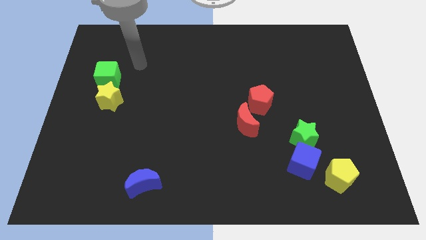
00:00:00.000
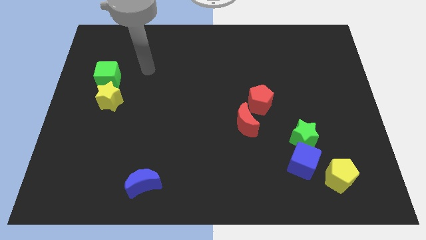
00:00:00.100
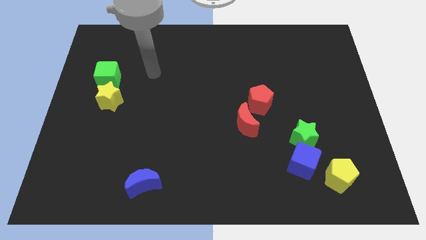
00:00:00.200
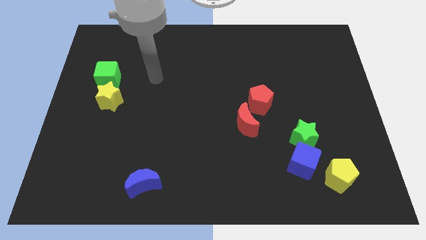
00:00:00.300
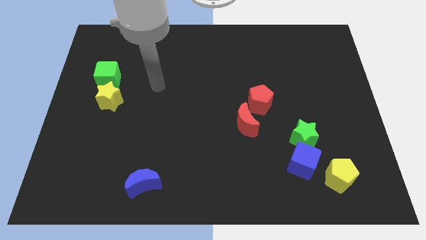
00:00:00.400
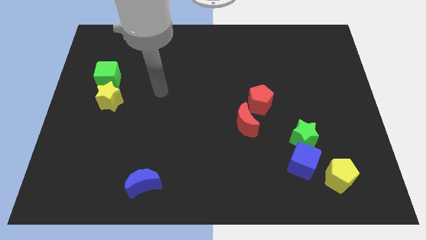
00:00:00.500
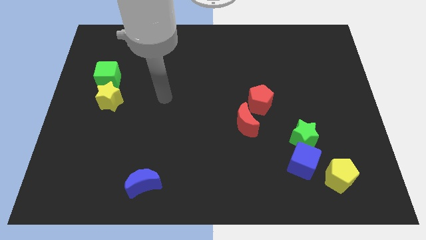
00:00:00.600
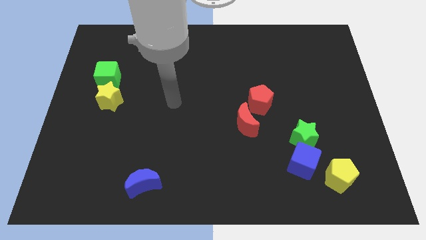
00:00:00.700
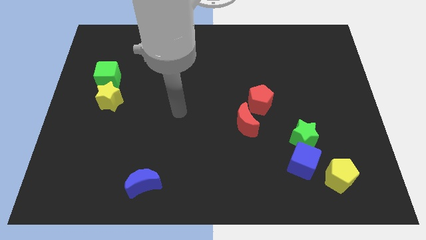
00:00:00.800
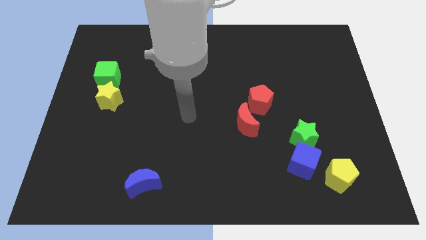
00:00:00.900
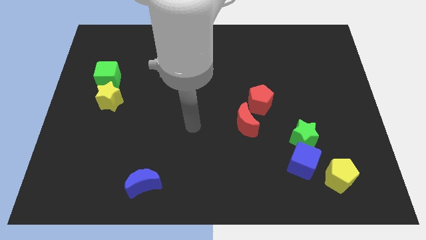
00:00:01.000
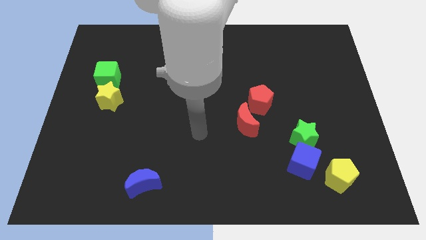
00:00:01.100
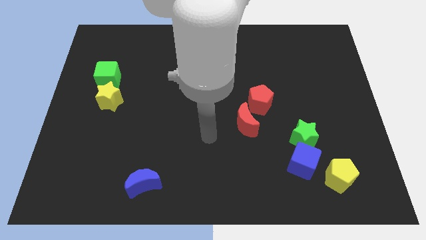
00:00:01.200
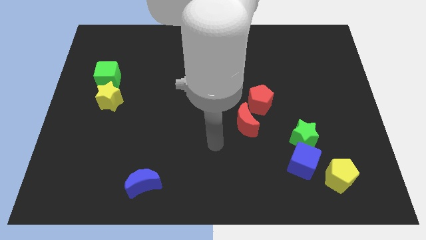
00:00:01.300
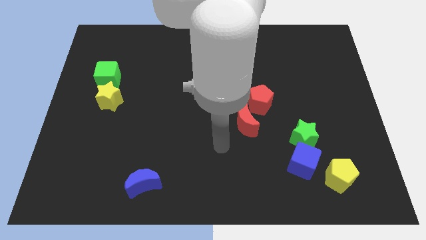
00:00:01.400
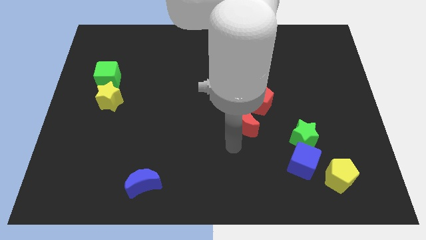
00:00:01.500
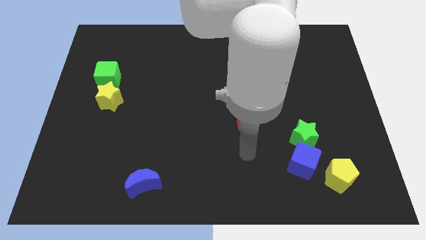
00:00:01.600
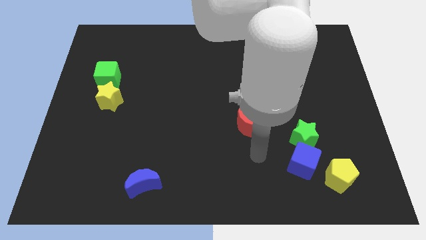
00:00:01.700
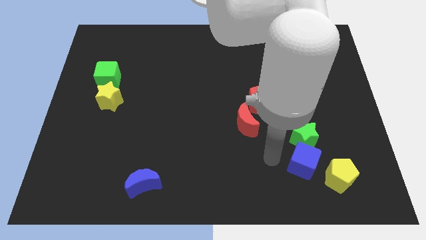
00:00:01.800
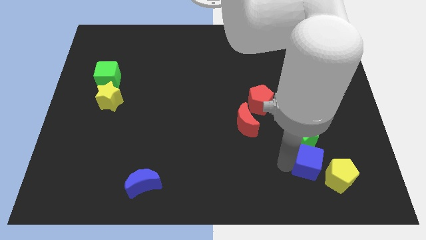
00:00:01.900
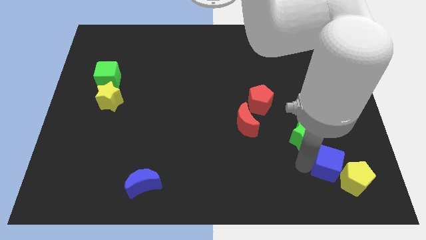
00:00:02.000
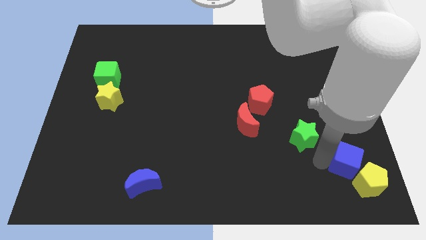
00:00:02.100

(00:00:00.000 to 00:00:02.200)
pull the green star apart from the blue cube

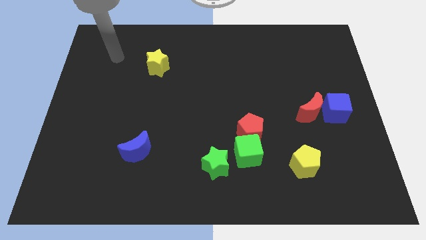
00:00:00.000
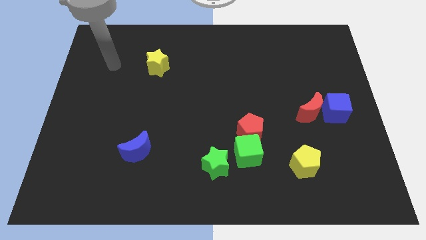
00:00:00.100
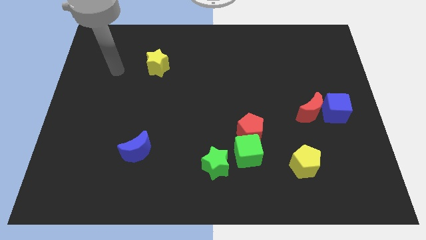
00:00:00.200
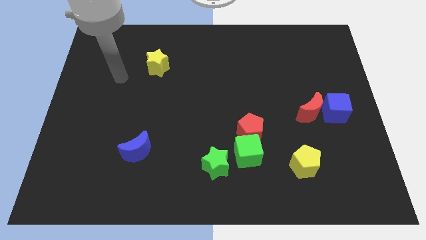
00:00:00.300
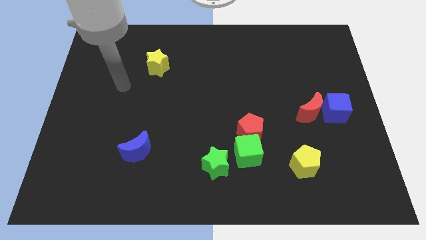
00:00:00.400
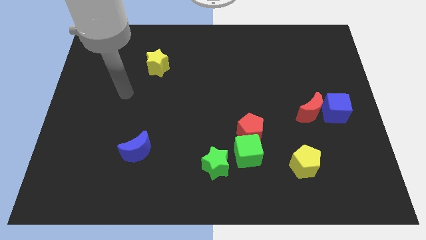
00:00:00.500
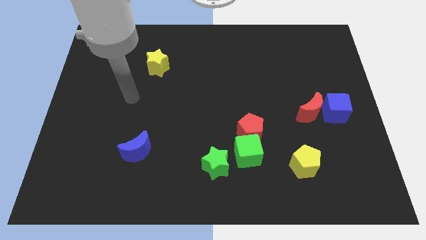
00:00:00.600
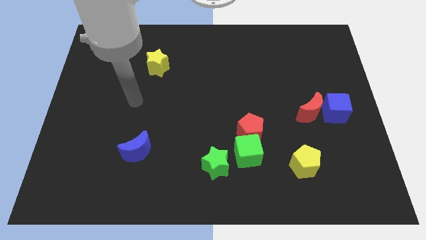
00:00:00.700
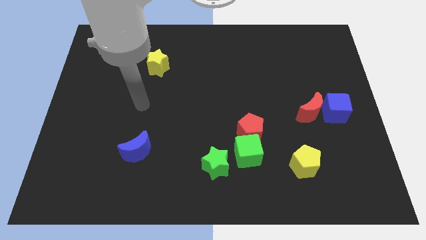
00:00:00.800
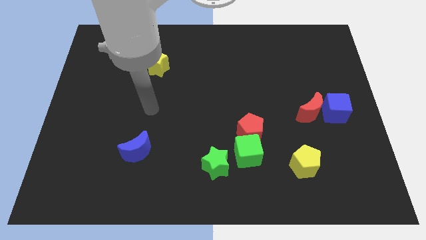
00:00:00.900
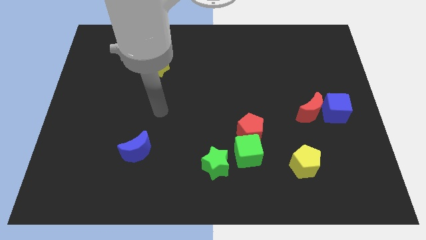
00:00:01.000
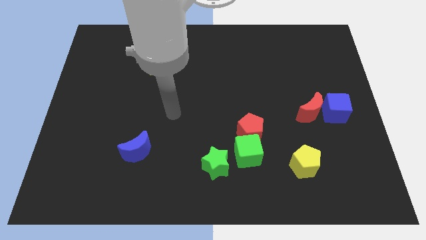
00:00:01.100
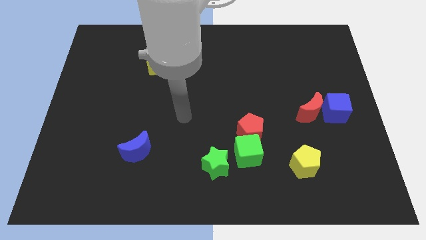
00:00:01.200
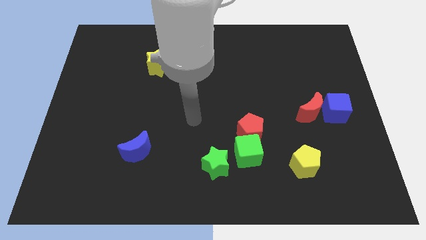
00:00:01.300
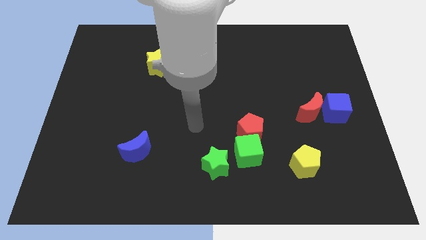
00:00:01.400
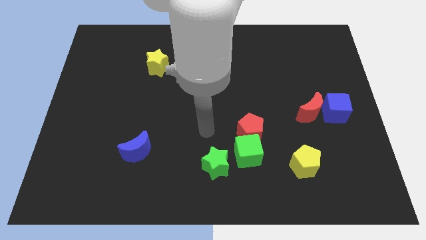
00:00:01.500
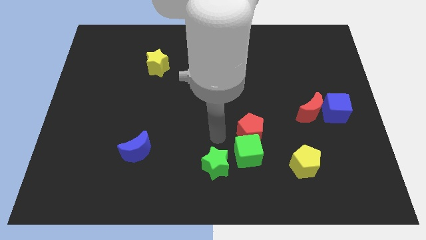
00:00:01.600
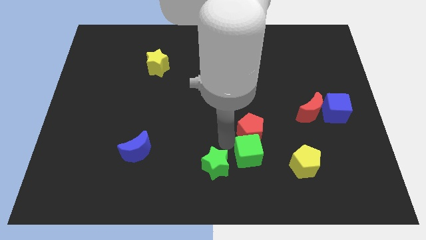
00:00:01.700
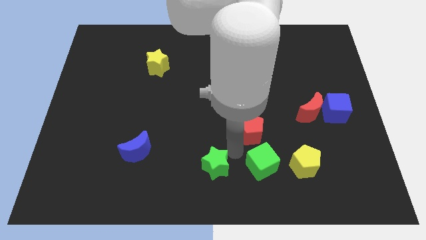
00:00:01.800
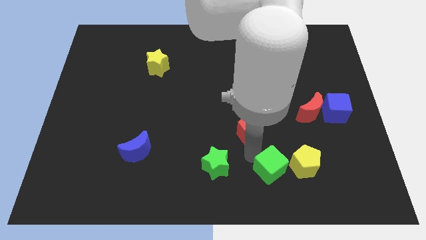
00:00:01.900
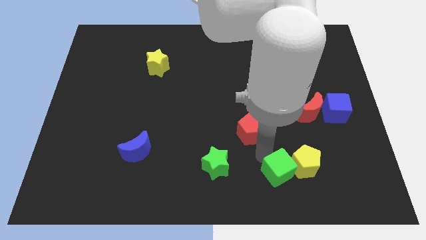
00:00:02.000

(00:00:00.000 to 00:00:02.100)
separate the red pentagon from the green cube

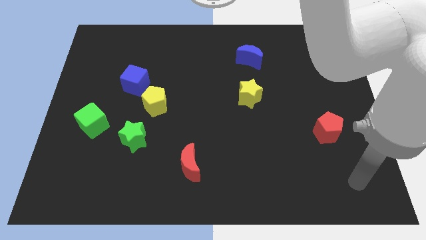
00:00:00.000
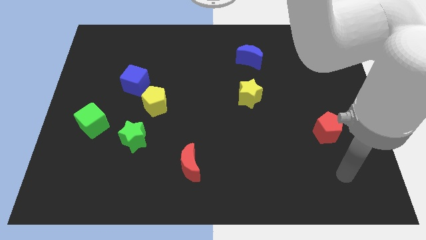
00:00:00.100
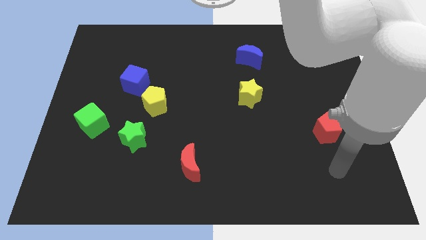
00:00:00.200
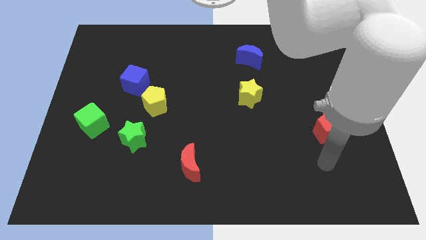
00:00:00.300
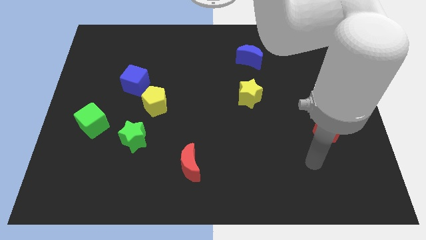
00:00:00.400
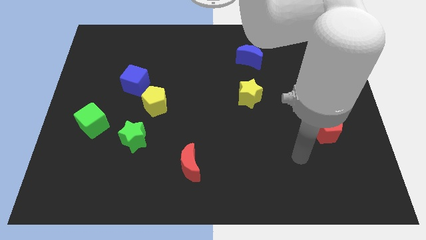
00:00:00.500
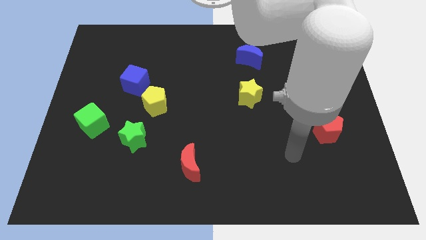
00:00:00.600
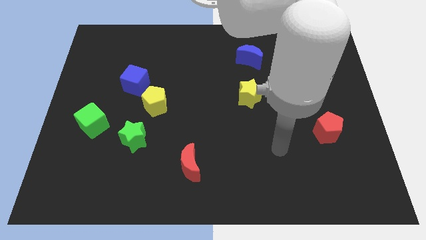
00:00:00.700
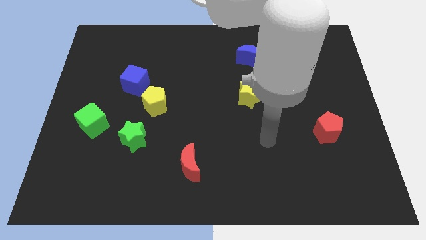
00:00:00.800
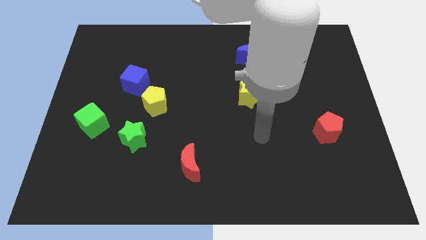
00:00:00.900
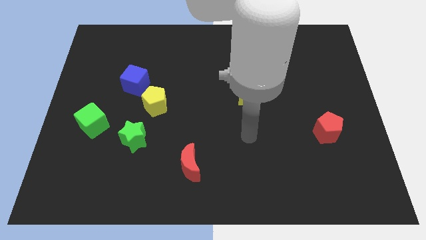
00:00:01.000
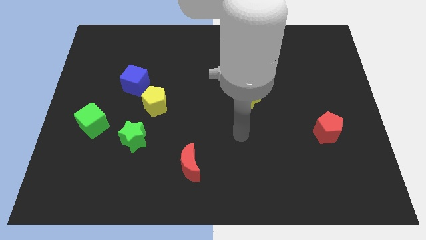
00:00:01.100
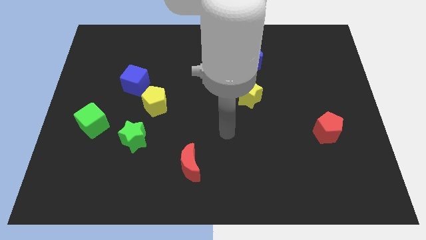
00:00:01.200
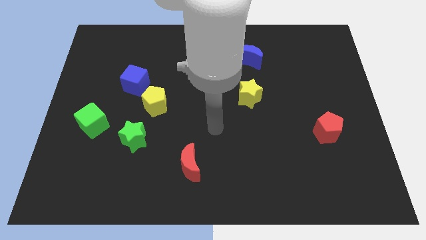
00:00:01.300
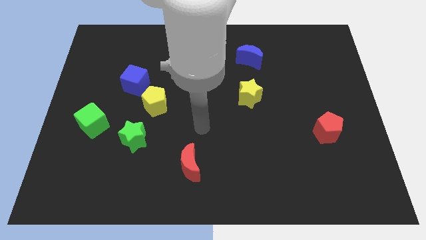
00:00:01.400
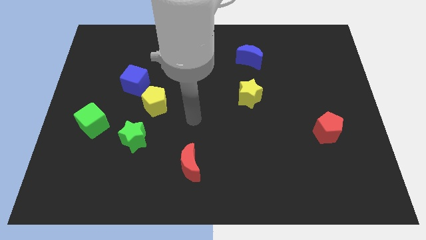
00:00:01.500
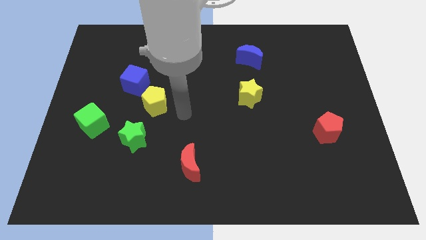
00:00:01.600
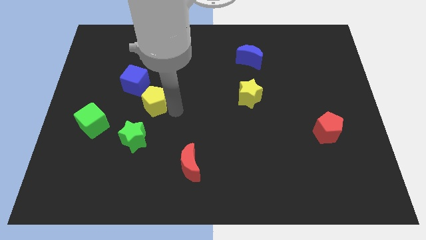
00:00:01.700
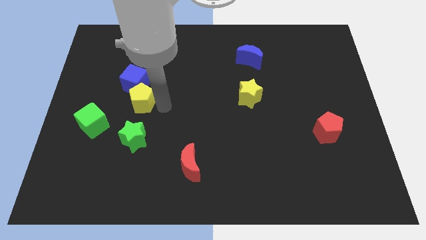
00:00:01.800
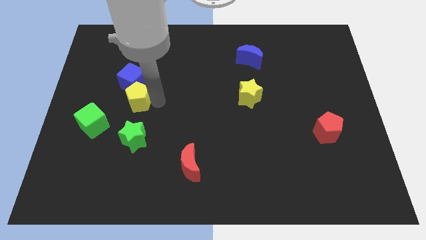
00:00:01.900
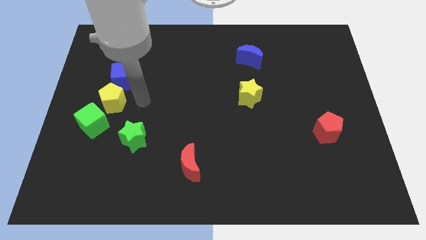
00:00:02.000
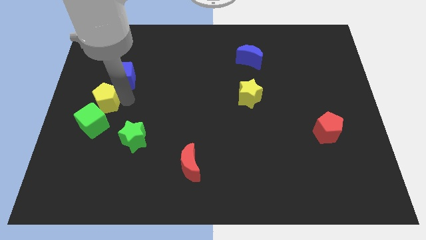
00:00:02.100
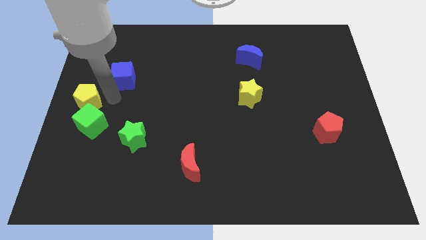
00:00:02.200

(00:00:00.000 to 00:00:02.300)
separate the blue cube from the yellow pentagon

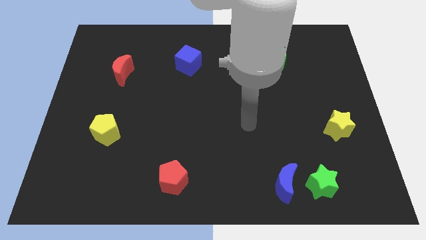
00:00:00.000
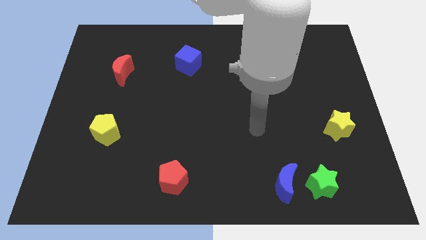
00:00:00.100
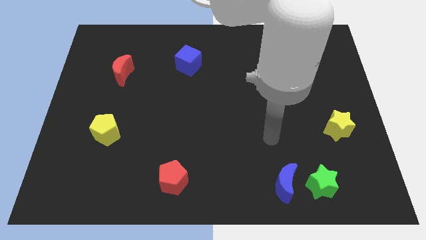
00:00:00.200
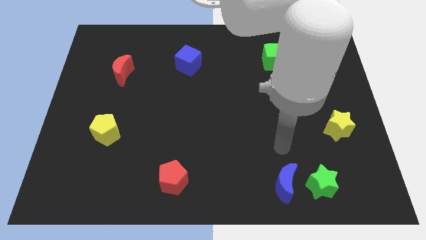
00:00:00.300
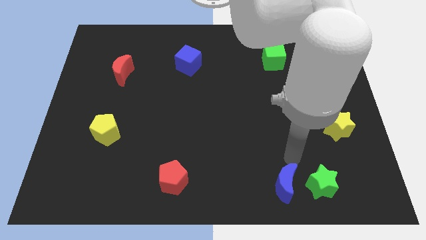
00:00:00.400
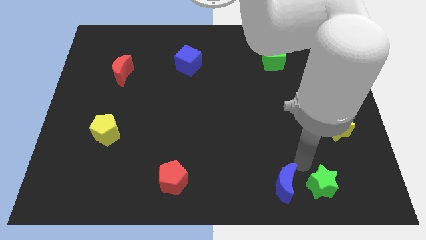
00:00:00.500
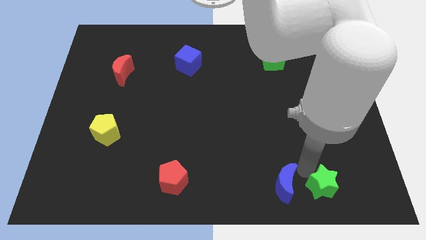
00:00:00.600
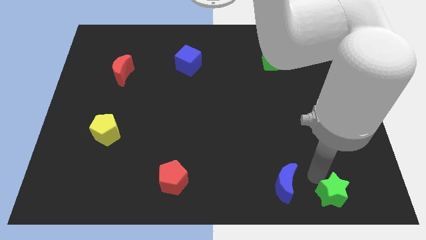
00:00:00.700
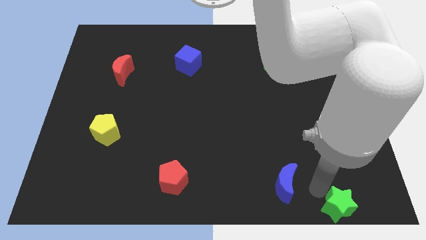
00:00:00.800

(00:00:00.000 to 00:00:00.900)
pull the blue moon apart from the green star

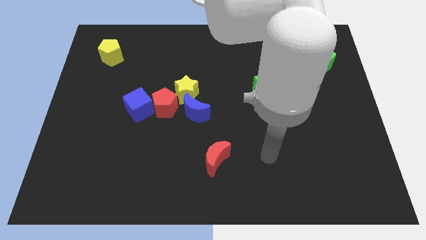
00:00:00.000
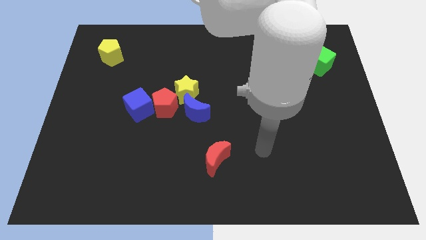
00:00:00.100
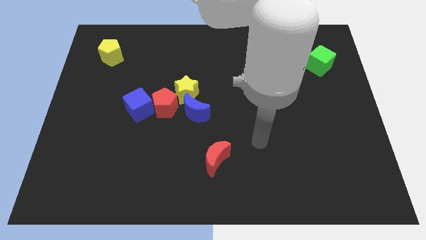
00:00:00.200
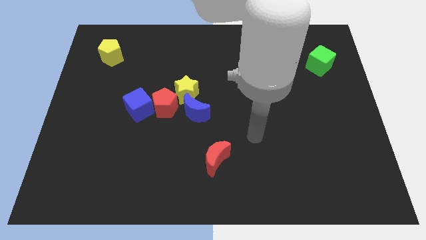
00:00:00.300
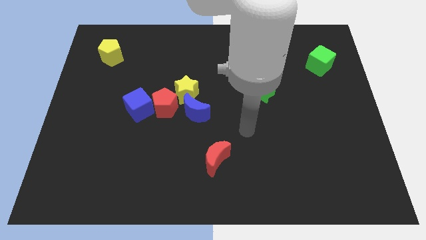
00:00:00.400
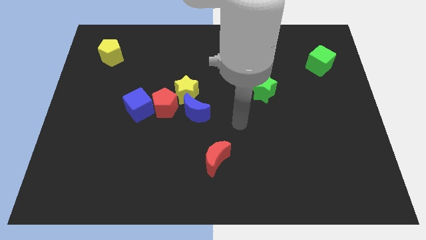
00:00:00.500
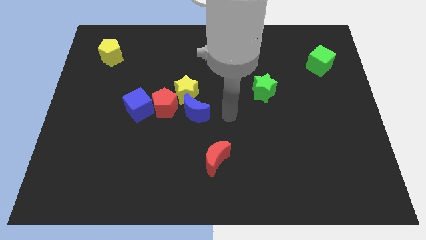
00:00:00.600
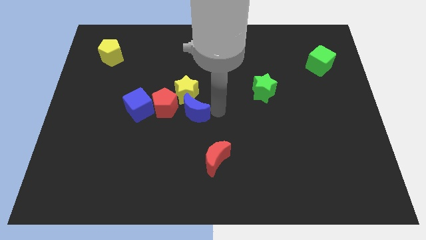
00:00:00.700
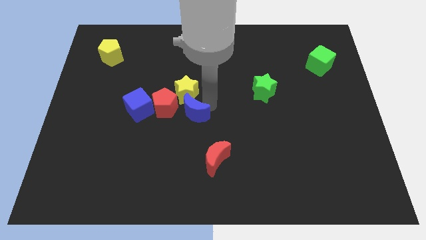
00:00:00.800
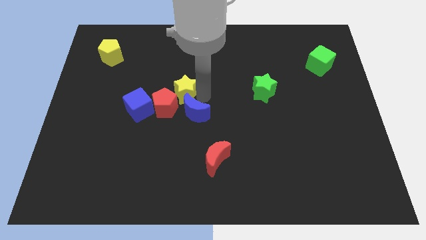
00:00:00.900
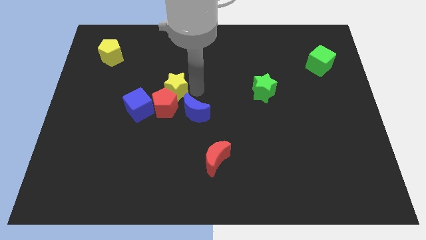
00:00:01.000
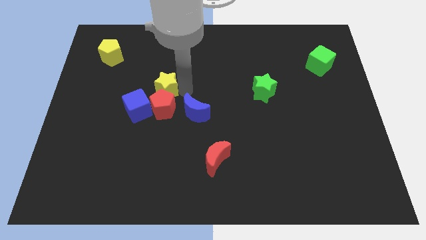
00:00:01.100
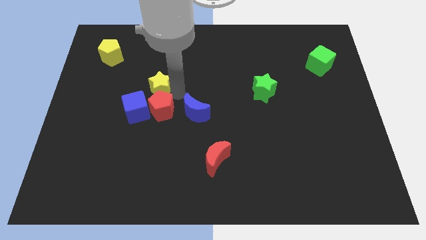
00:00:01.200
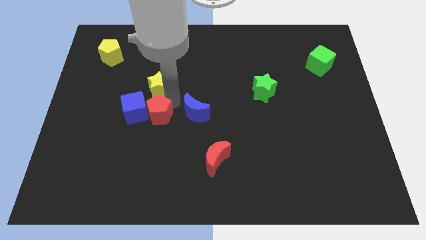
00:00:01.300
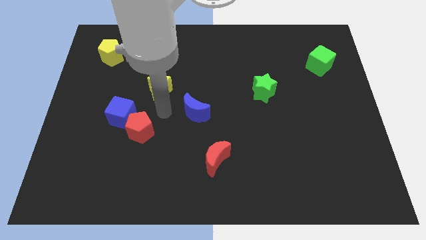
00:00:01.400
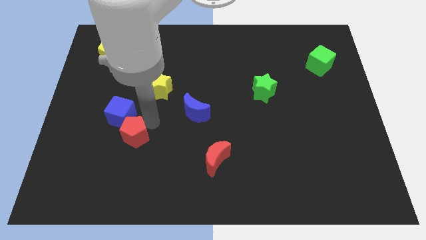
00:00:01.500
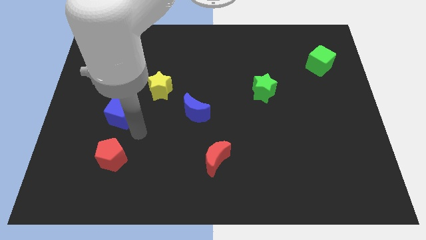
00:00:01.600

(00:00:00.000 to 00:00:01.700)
separate the blue cube from the red pentagon
